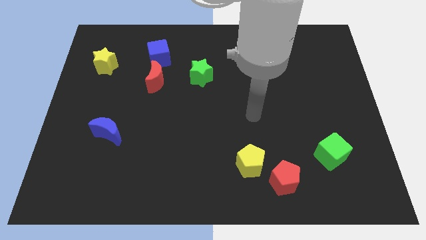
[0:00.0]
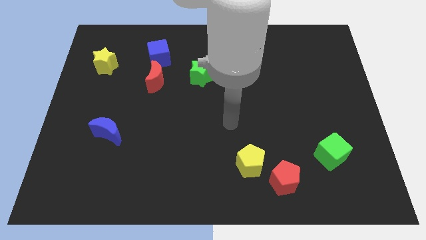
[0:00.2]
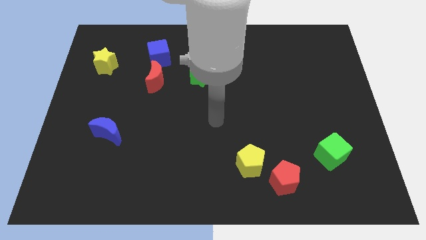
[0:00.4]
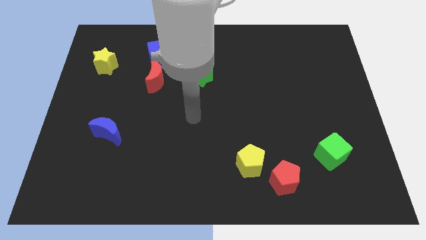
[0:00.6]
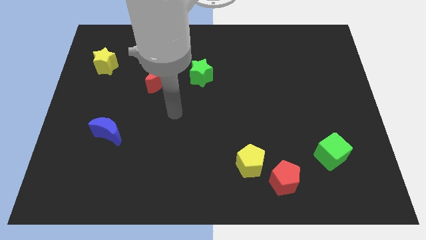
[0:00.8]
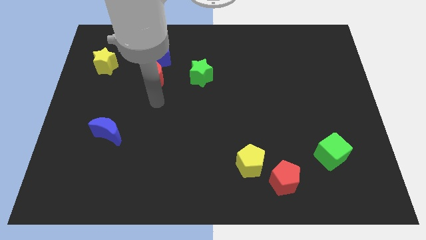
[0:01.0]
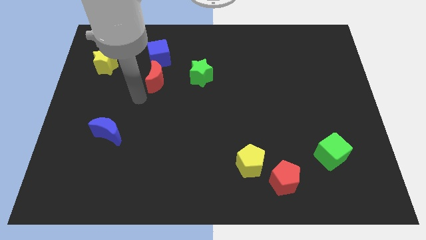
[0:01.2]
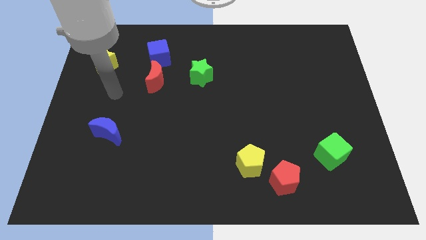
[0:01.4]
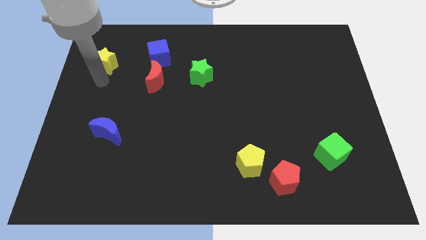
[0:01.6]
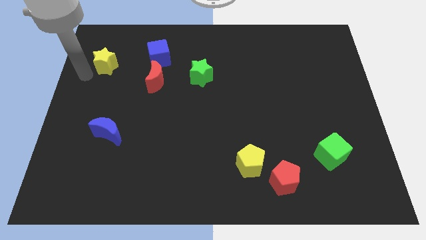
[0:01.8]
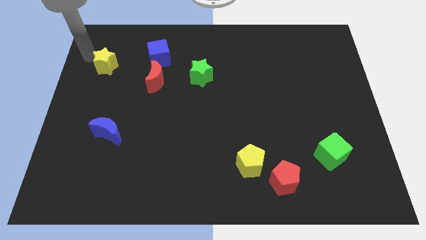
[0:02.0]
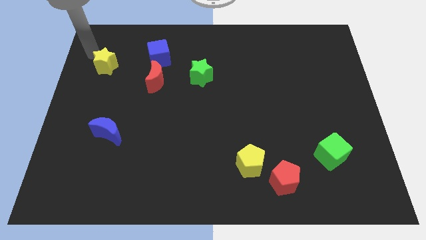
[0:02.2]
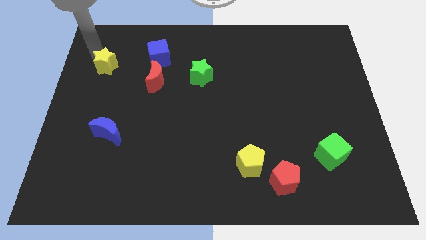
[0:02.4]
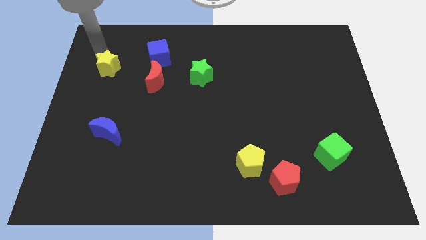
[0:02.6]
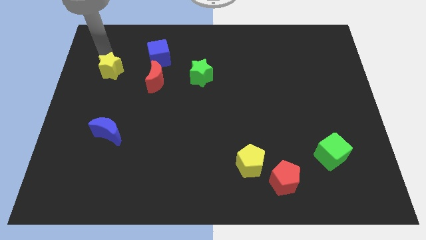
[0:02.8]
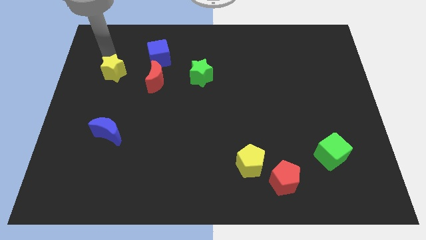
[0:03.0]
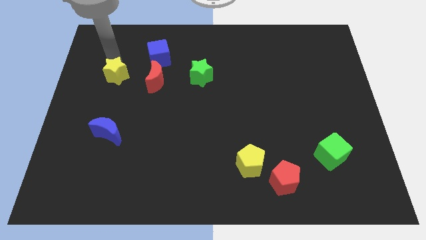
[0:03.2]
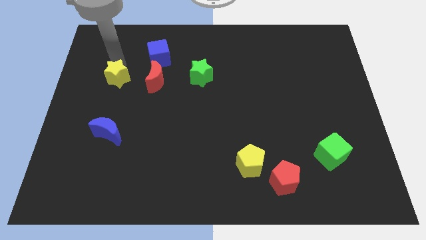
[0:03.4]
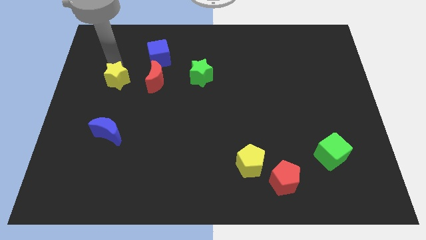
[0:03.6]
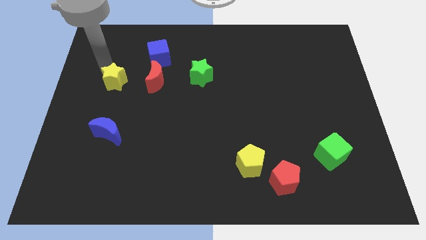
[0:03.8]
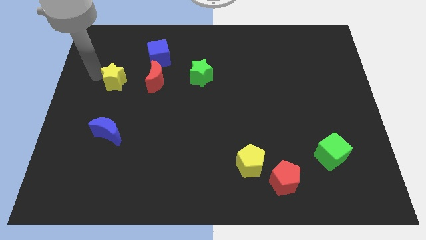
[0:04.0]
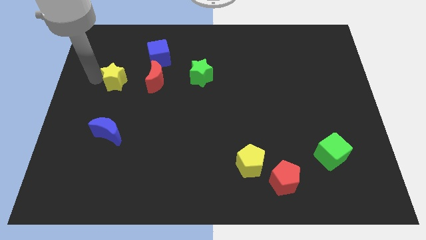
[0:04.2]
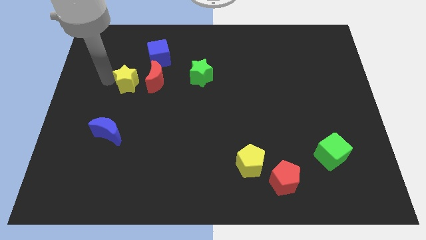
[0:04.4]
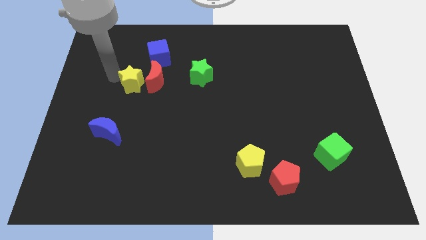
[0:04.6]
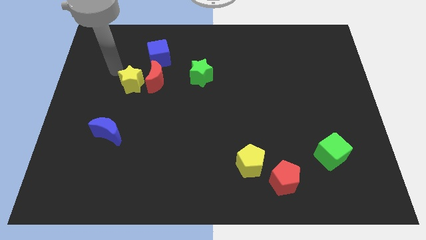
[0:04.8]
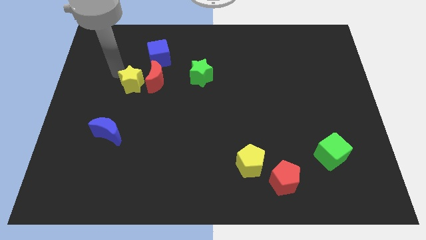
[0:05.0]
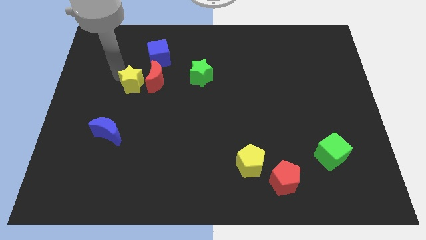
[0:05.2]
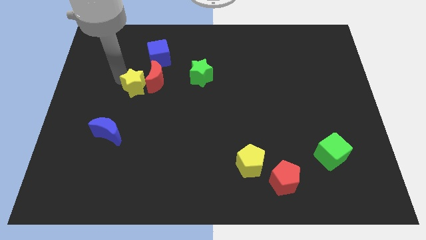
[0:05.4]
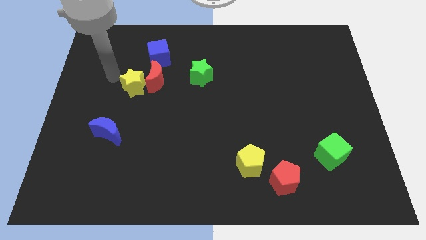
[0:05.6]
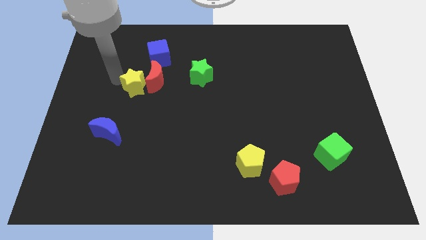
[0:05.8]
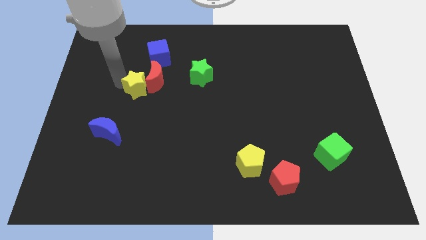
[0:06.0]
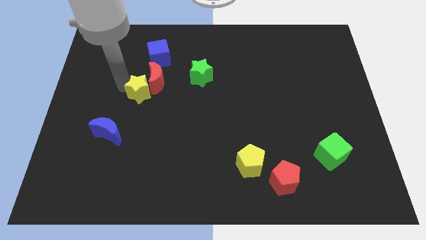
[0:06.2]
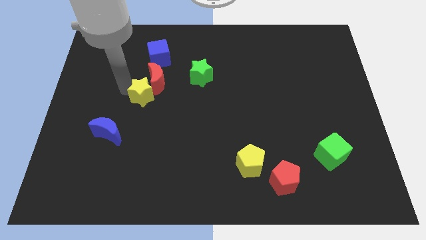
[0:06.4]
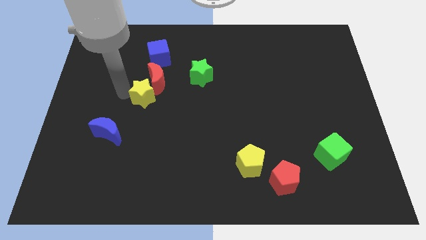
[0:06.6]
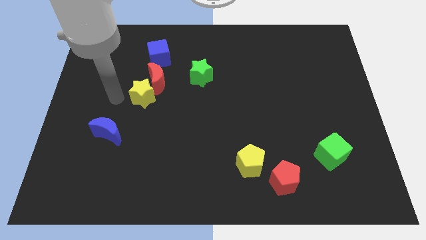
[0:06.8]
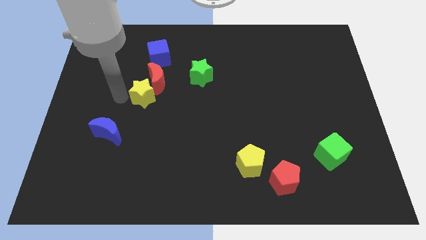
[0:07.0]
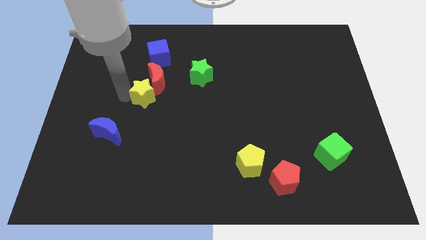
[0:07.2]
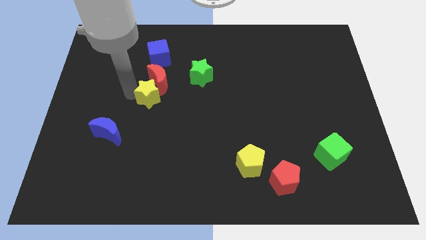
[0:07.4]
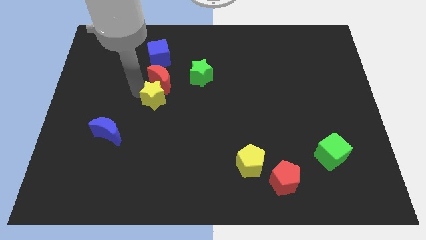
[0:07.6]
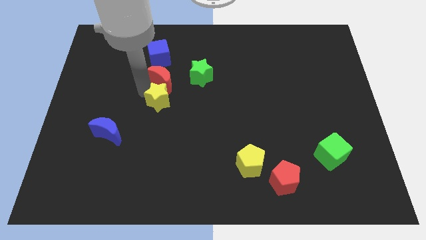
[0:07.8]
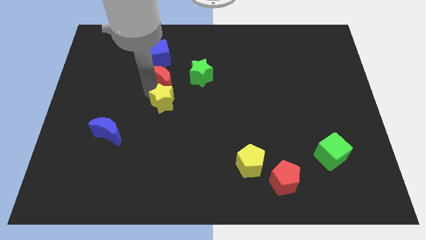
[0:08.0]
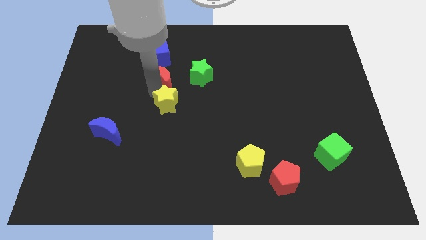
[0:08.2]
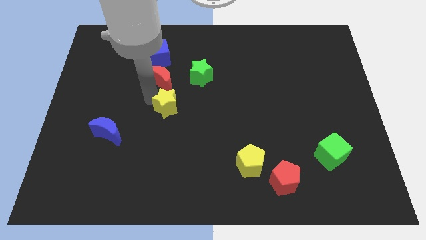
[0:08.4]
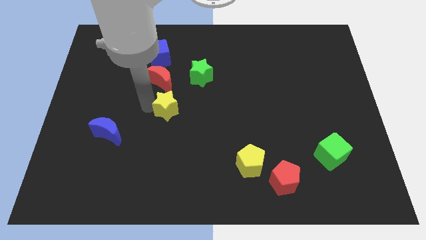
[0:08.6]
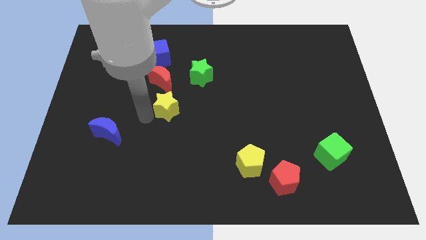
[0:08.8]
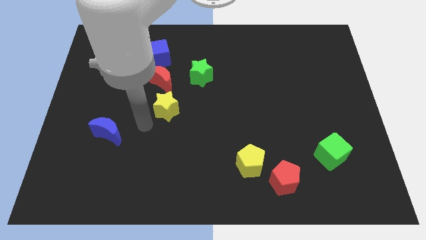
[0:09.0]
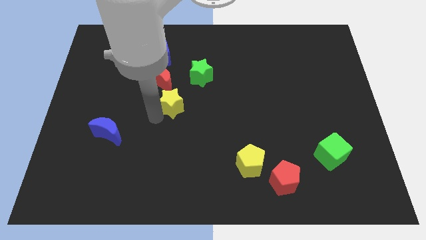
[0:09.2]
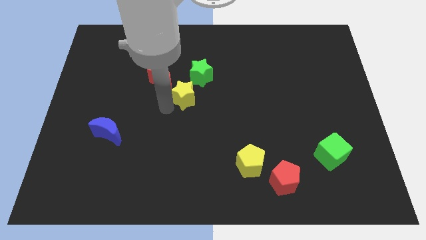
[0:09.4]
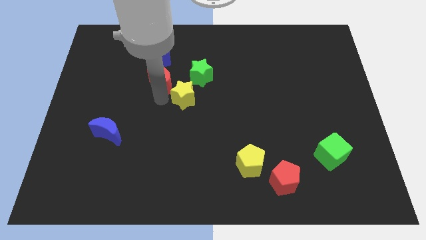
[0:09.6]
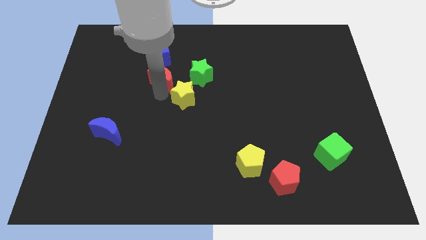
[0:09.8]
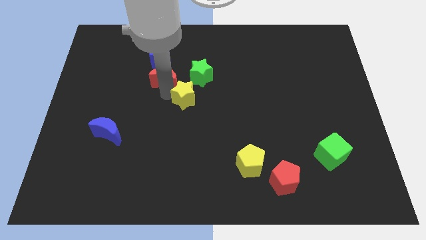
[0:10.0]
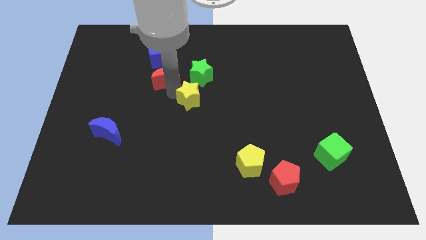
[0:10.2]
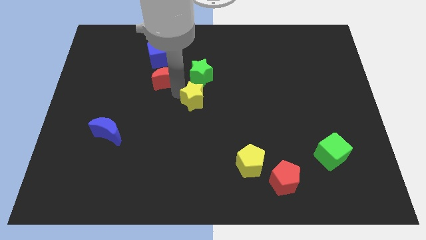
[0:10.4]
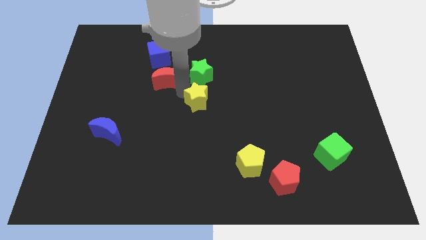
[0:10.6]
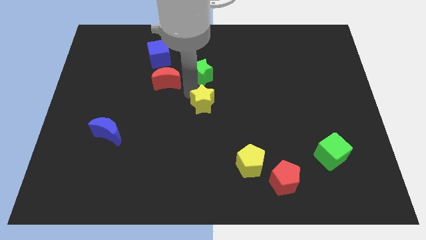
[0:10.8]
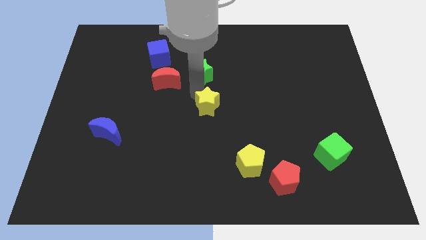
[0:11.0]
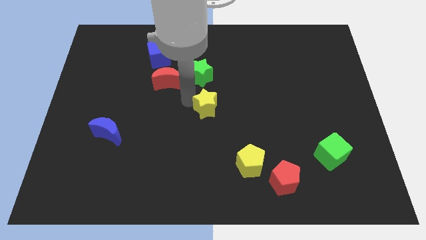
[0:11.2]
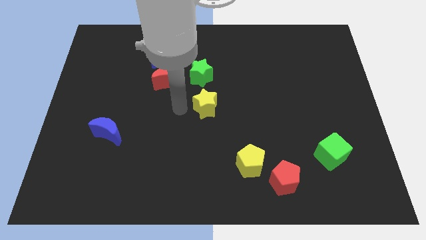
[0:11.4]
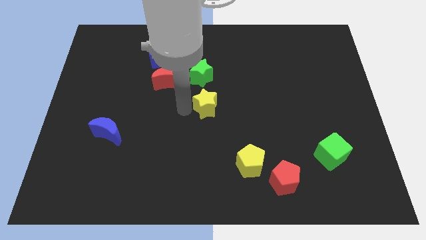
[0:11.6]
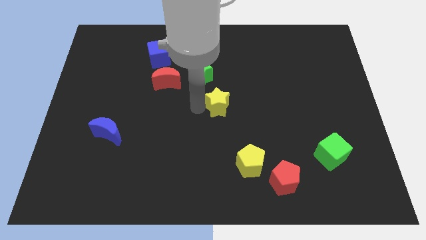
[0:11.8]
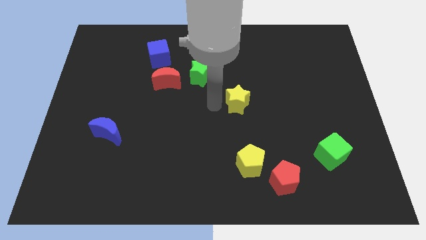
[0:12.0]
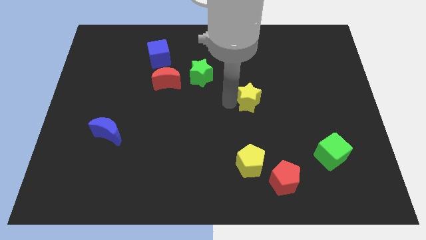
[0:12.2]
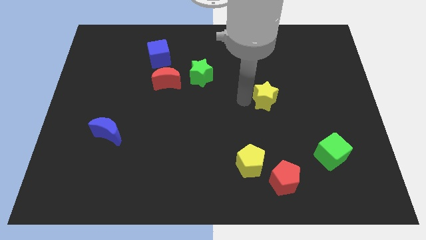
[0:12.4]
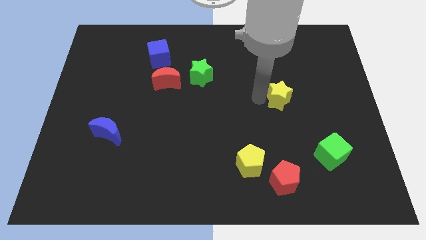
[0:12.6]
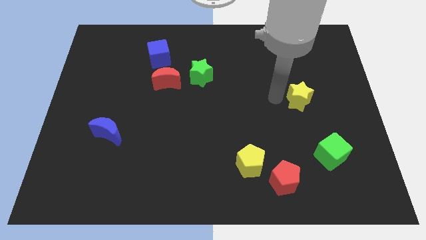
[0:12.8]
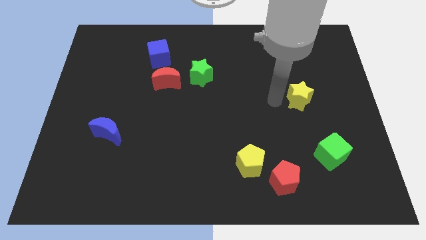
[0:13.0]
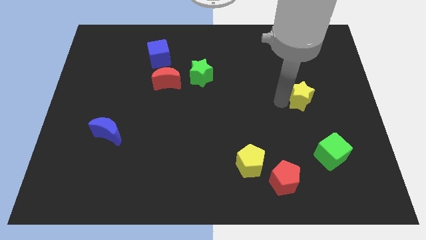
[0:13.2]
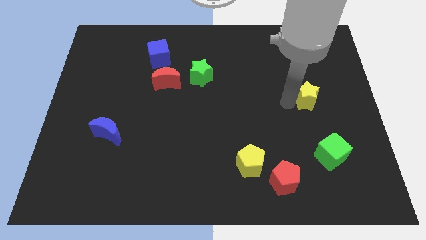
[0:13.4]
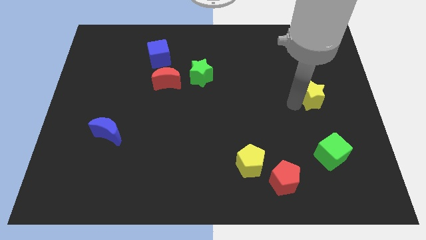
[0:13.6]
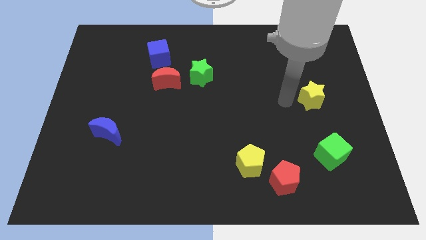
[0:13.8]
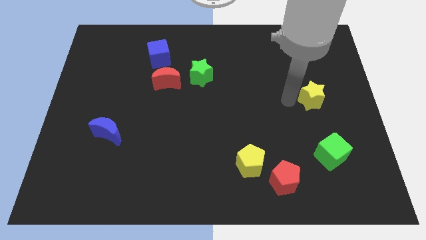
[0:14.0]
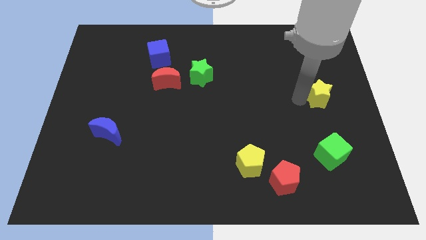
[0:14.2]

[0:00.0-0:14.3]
move the yellow star to the right side of the board
